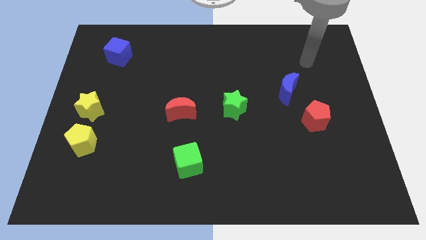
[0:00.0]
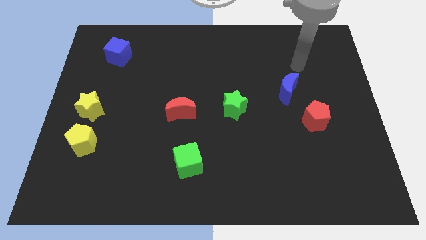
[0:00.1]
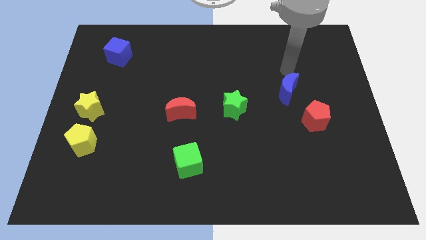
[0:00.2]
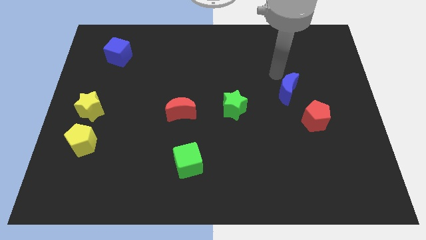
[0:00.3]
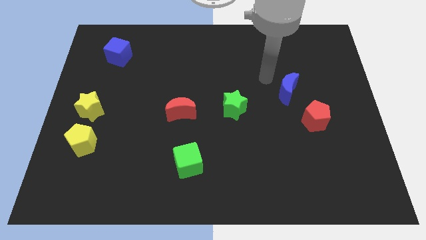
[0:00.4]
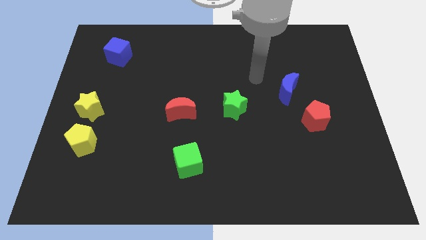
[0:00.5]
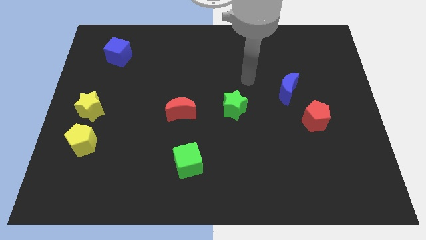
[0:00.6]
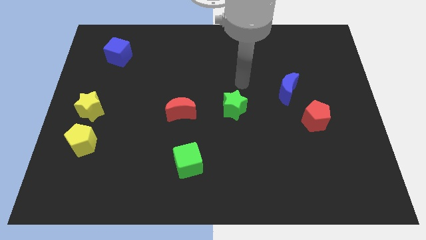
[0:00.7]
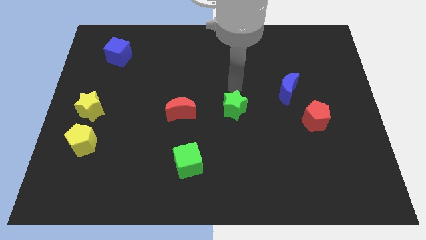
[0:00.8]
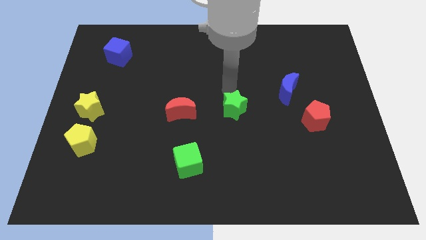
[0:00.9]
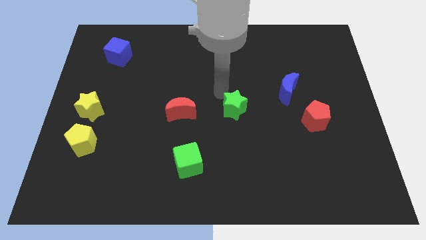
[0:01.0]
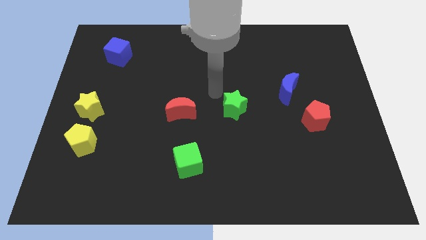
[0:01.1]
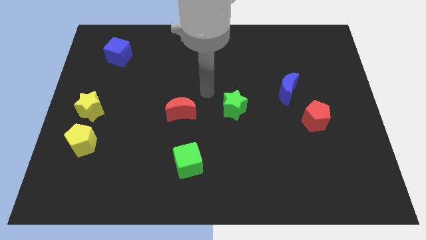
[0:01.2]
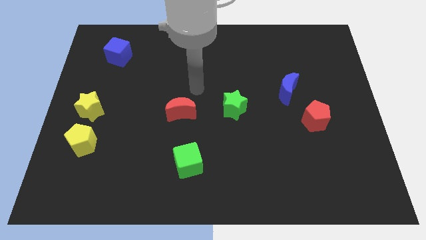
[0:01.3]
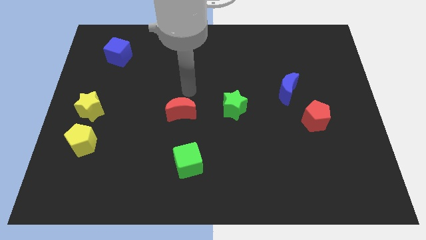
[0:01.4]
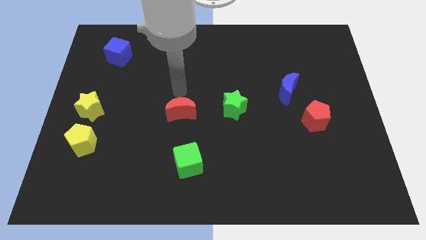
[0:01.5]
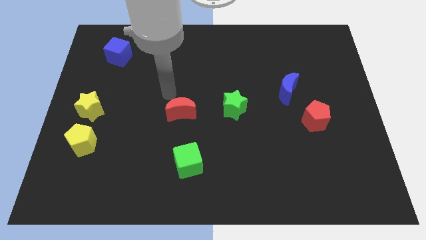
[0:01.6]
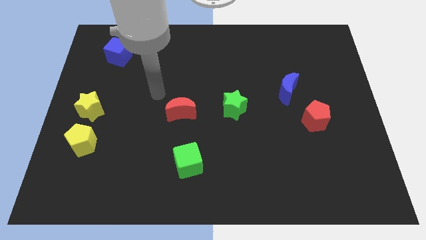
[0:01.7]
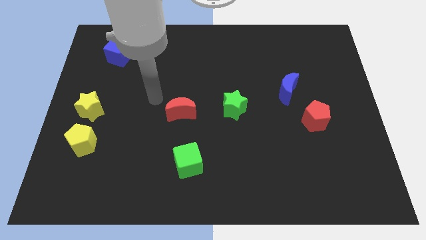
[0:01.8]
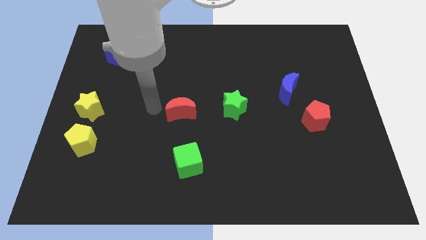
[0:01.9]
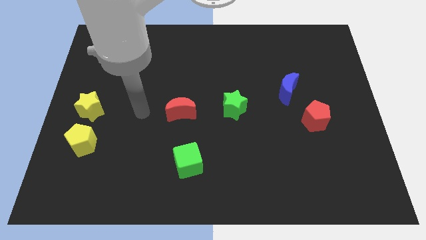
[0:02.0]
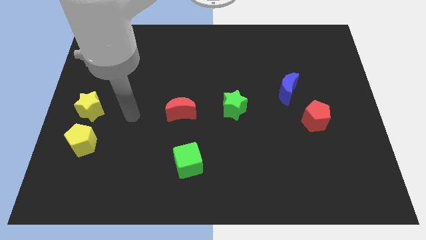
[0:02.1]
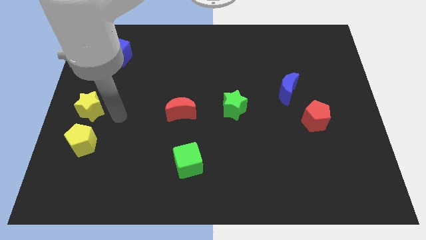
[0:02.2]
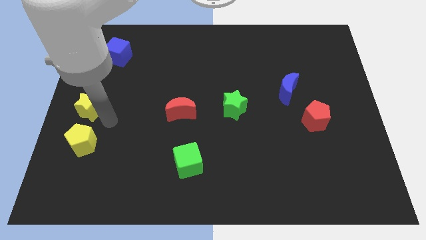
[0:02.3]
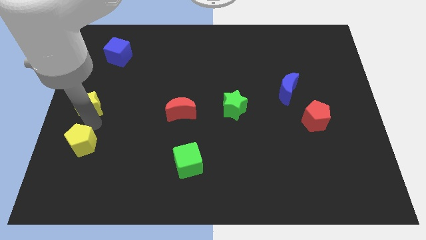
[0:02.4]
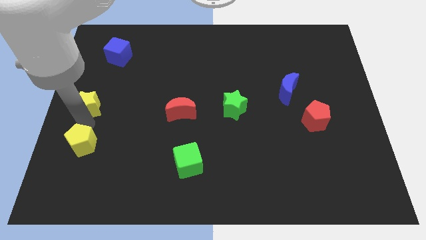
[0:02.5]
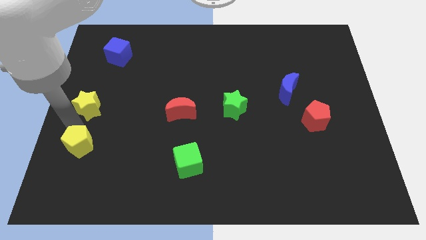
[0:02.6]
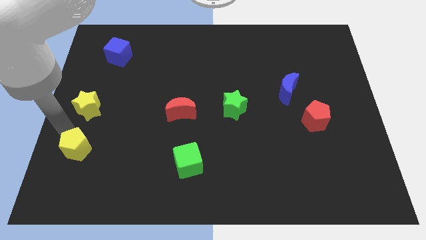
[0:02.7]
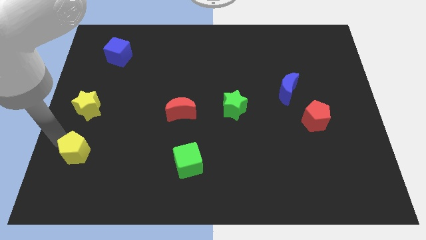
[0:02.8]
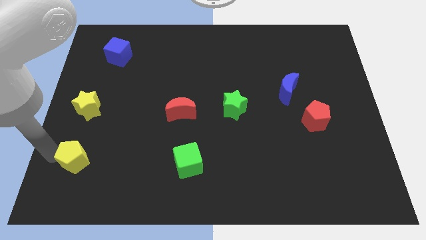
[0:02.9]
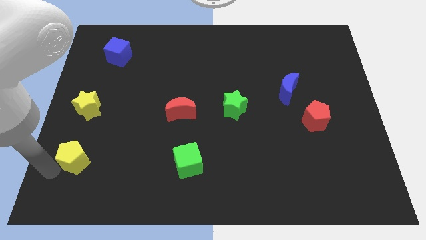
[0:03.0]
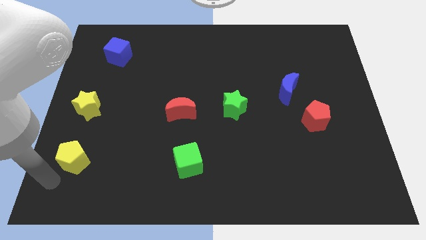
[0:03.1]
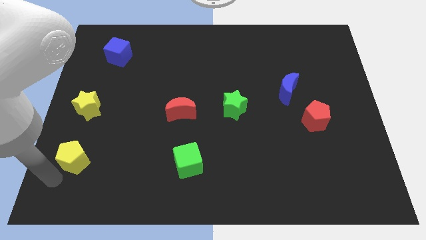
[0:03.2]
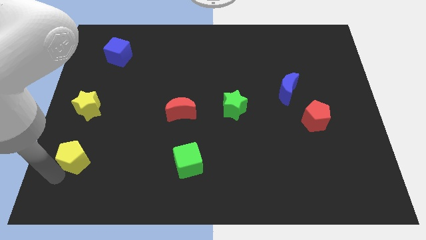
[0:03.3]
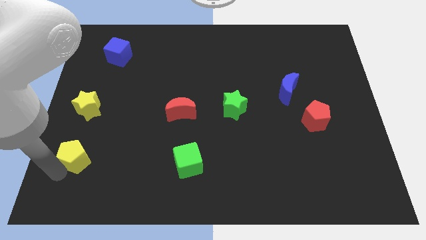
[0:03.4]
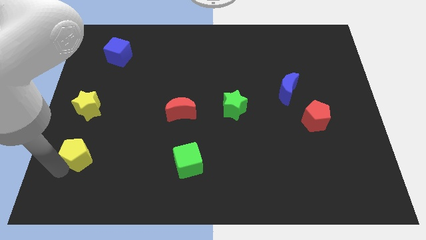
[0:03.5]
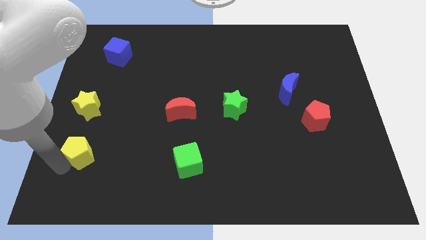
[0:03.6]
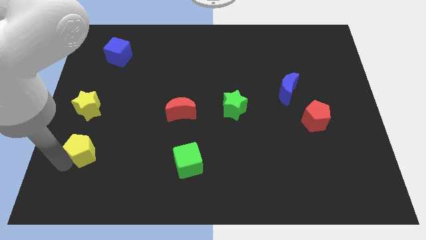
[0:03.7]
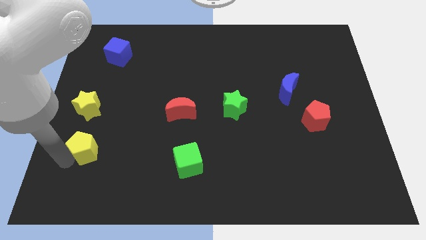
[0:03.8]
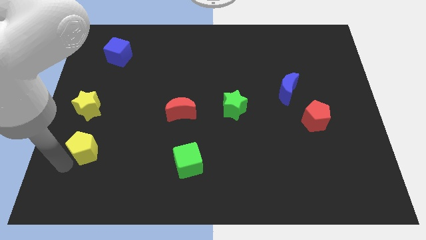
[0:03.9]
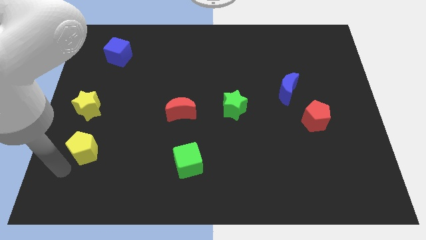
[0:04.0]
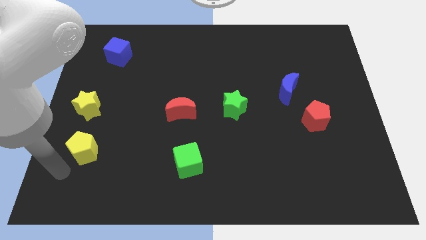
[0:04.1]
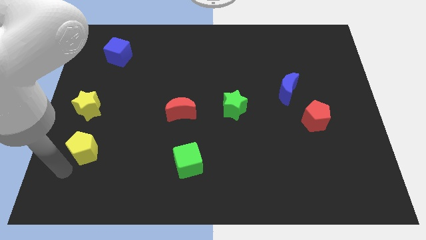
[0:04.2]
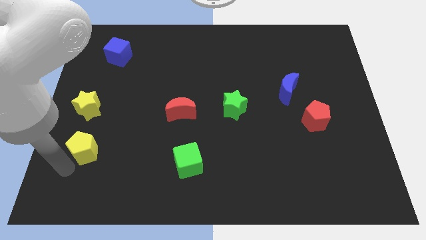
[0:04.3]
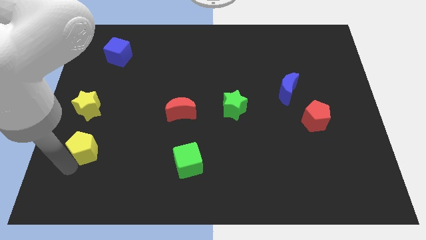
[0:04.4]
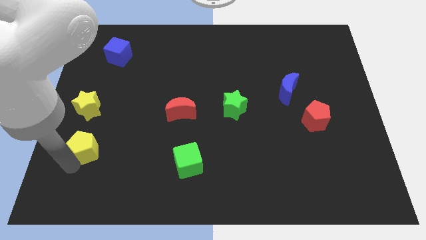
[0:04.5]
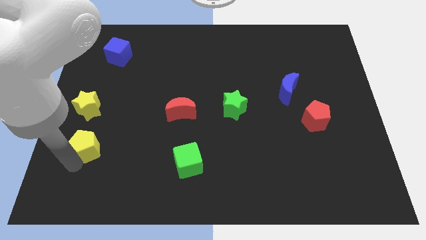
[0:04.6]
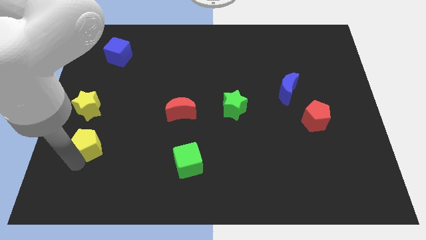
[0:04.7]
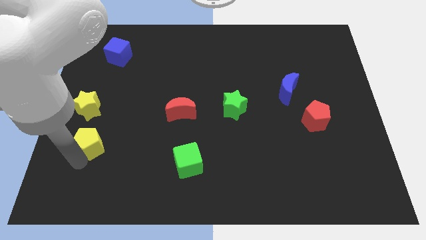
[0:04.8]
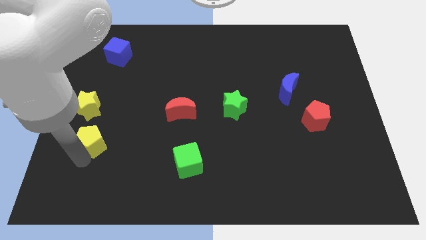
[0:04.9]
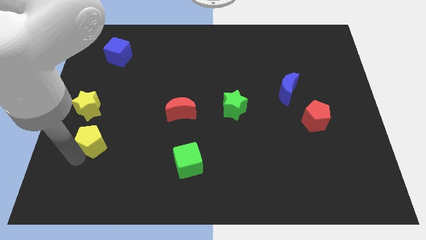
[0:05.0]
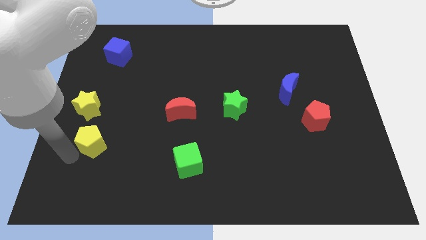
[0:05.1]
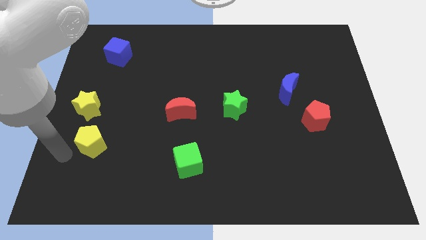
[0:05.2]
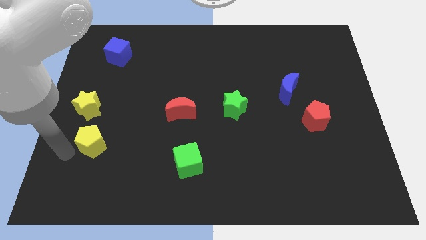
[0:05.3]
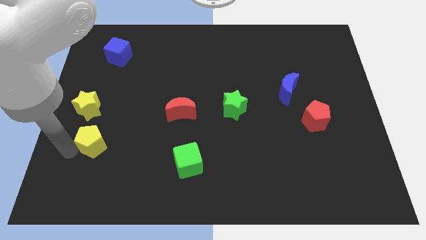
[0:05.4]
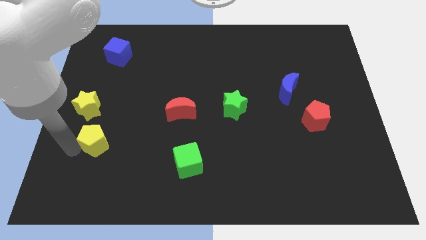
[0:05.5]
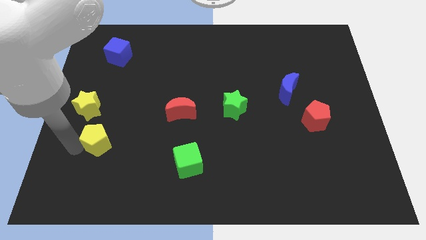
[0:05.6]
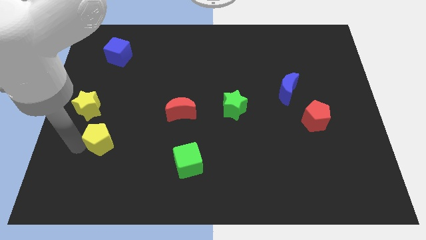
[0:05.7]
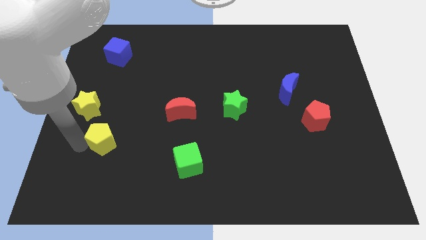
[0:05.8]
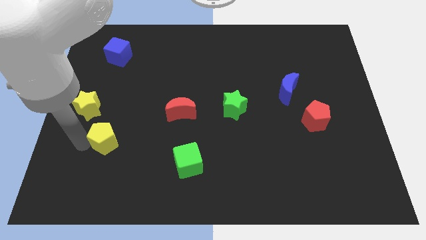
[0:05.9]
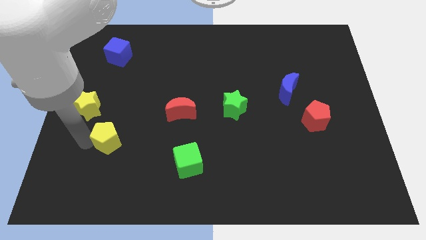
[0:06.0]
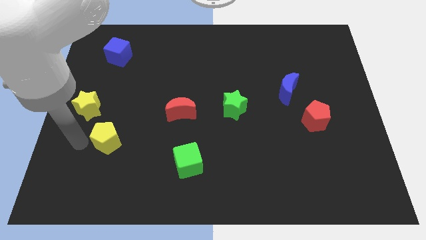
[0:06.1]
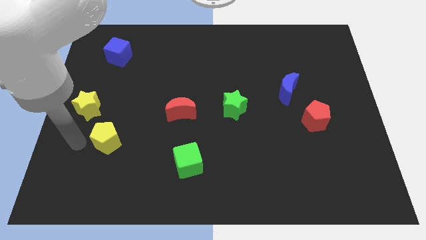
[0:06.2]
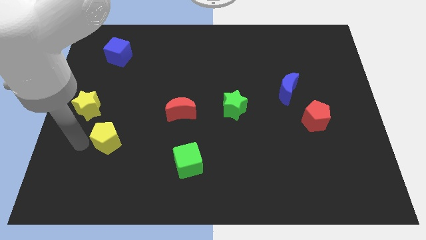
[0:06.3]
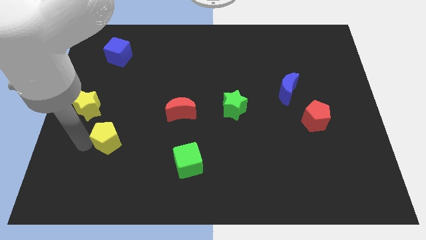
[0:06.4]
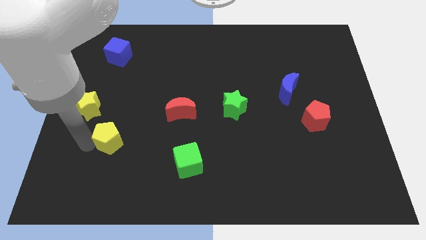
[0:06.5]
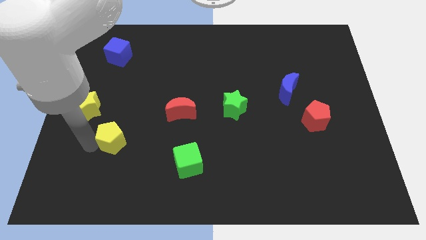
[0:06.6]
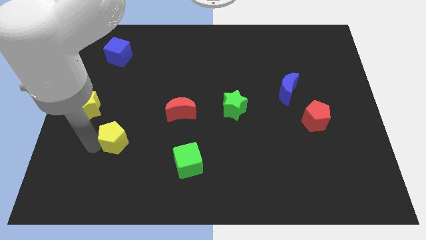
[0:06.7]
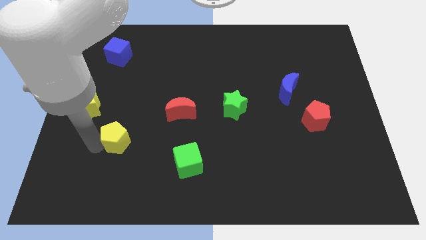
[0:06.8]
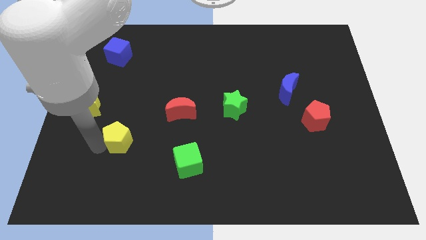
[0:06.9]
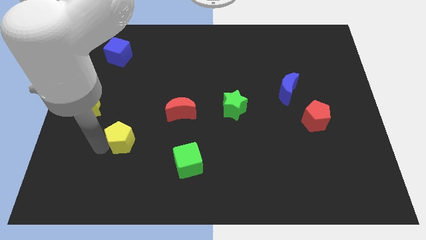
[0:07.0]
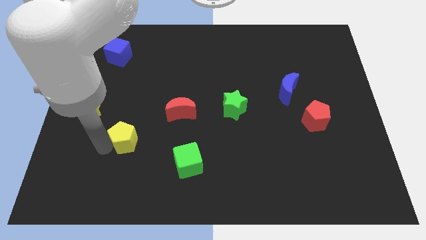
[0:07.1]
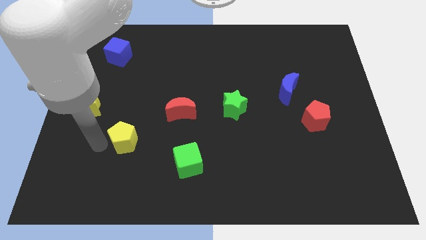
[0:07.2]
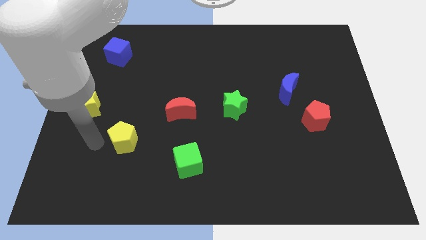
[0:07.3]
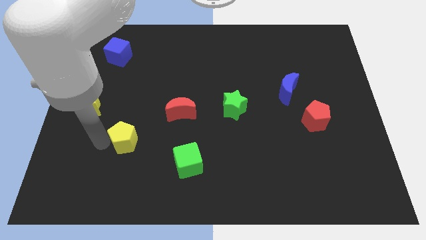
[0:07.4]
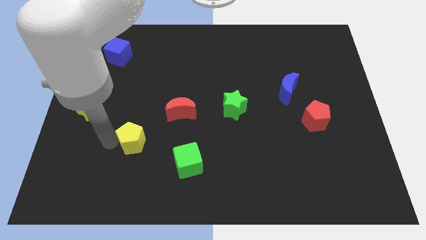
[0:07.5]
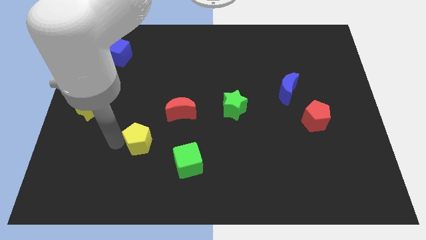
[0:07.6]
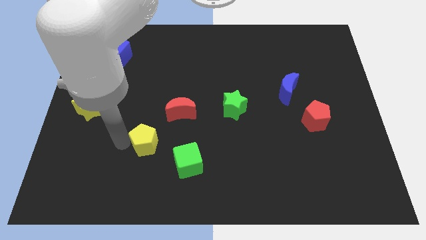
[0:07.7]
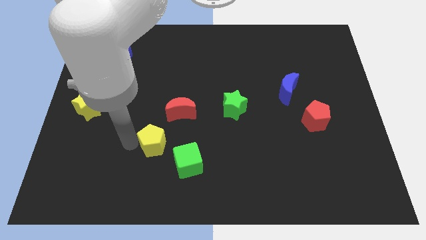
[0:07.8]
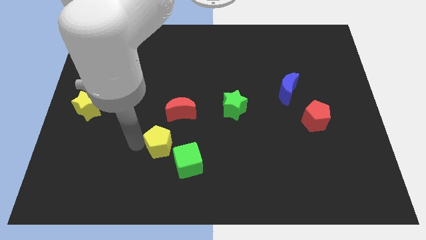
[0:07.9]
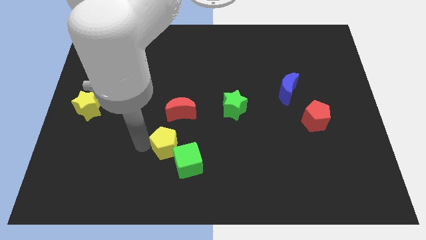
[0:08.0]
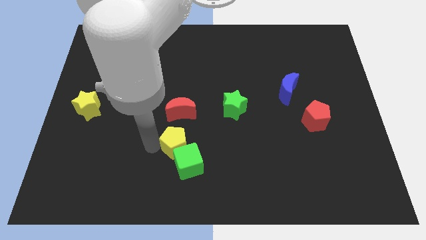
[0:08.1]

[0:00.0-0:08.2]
push the yellow pentagon to the right
